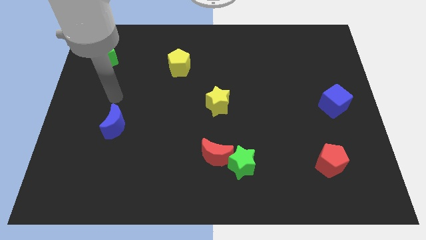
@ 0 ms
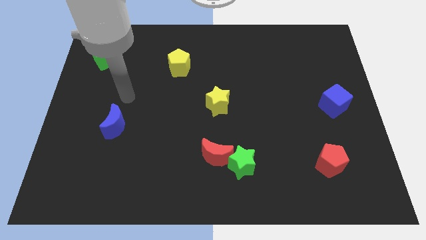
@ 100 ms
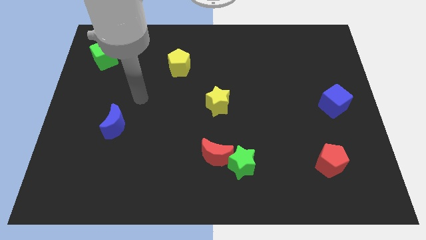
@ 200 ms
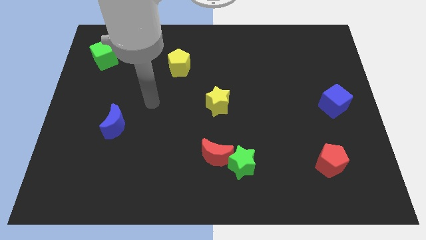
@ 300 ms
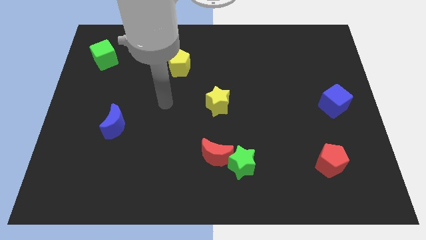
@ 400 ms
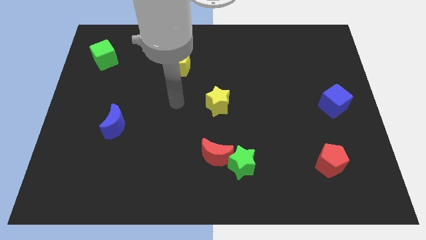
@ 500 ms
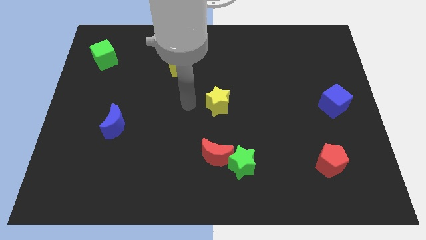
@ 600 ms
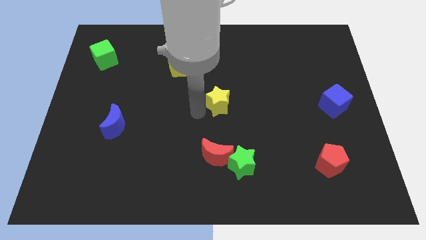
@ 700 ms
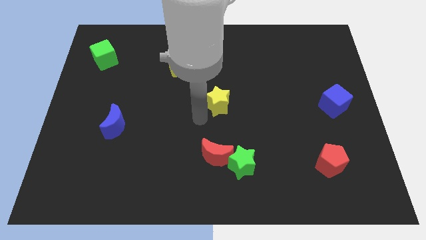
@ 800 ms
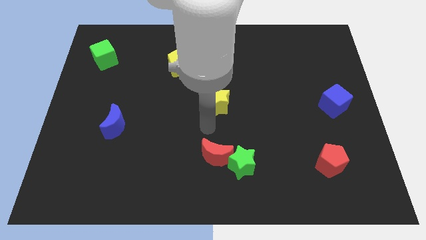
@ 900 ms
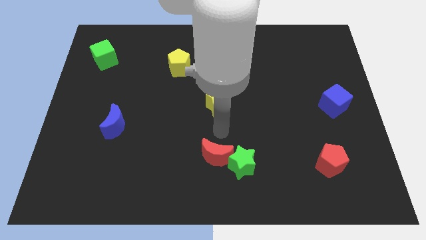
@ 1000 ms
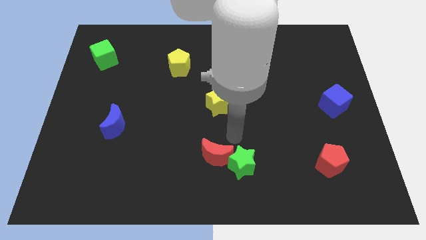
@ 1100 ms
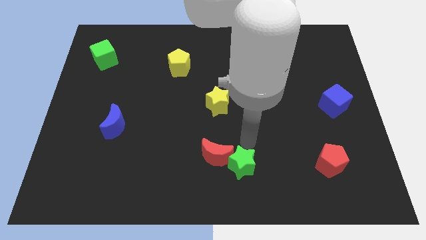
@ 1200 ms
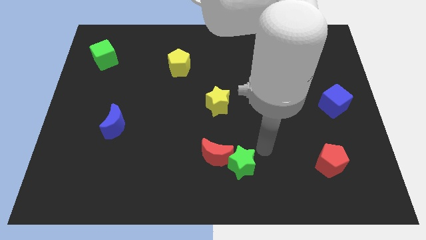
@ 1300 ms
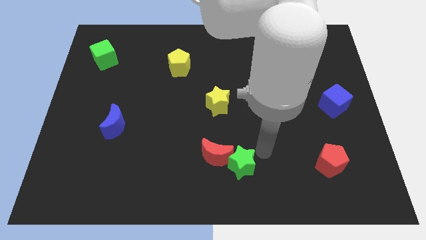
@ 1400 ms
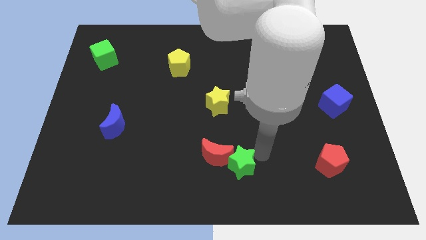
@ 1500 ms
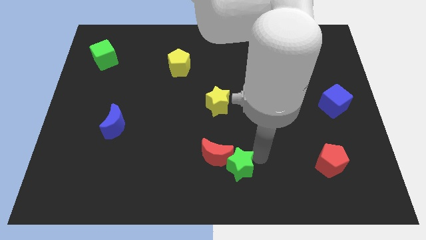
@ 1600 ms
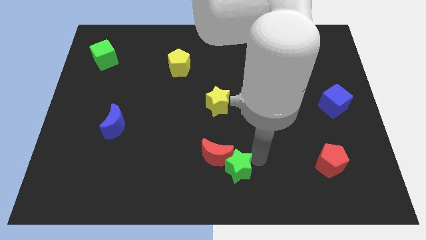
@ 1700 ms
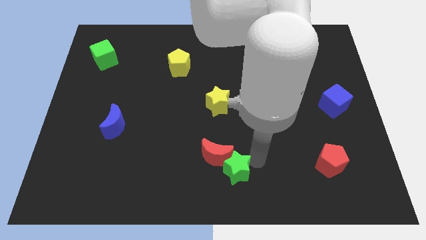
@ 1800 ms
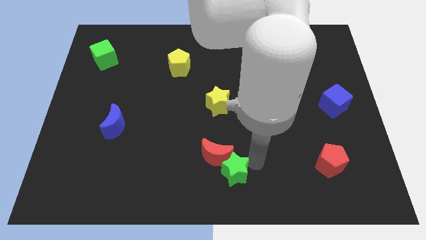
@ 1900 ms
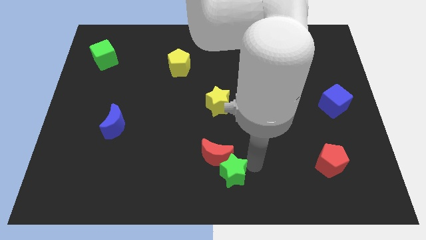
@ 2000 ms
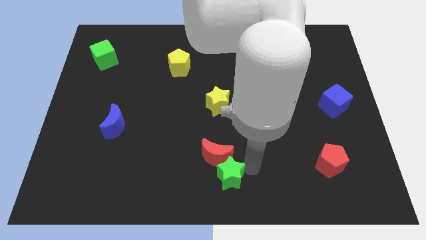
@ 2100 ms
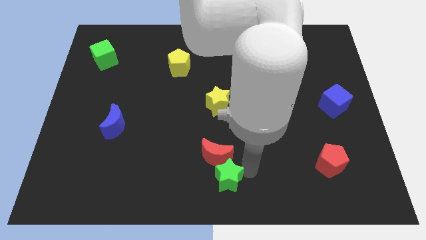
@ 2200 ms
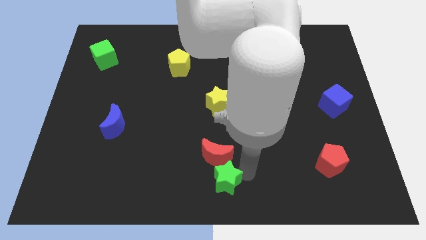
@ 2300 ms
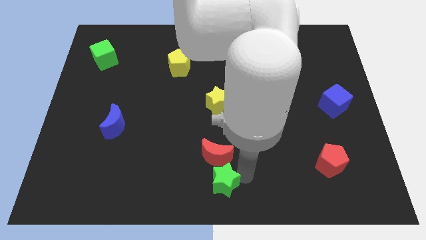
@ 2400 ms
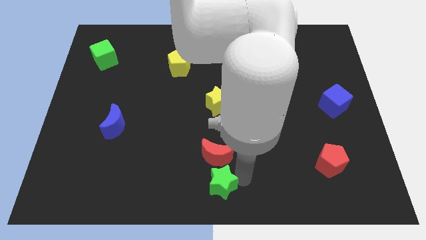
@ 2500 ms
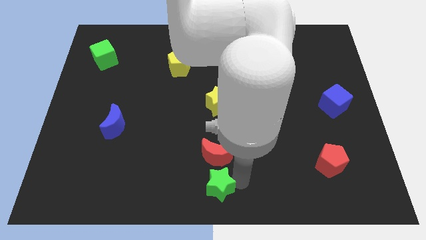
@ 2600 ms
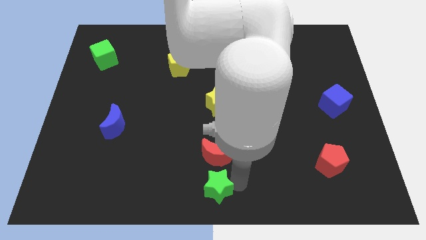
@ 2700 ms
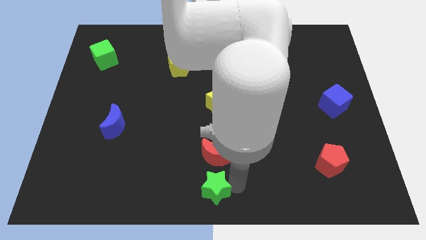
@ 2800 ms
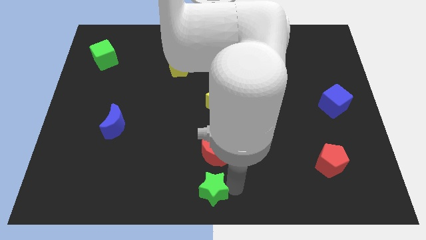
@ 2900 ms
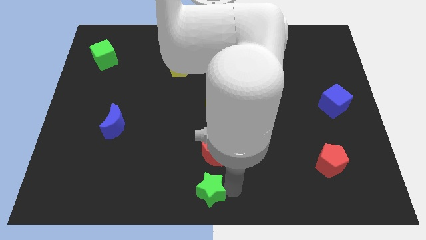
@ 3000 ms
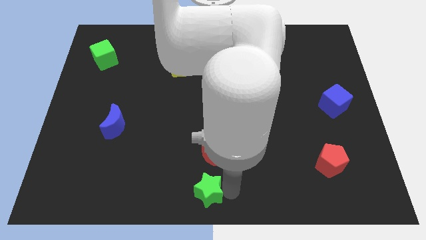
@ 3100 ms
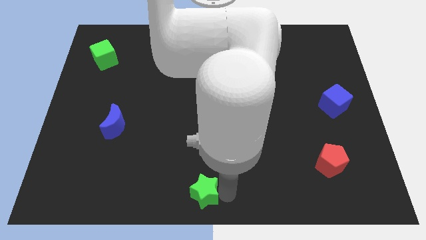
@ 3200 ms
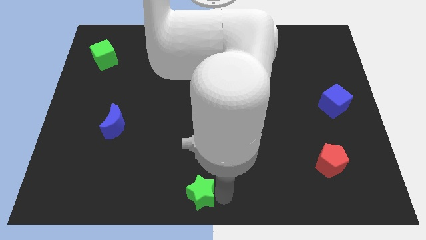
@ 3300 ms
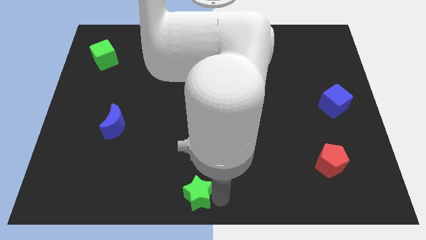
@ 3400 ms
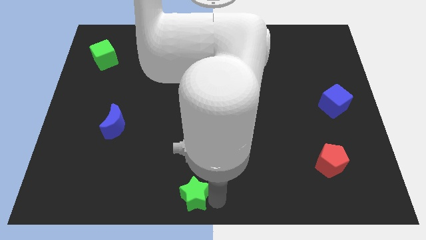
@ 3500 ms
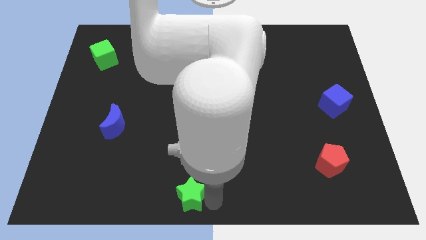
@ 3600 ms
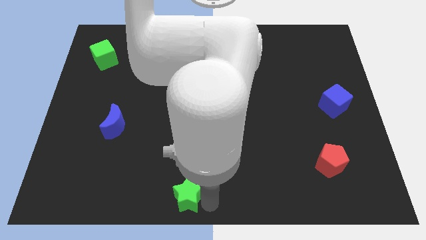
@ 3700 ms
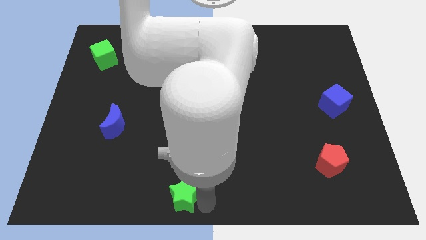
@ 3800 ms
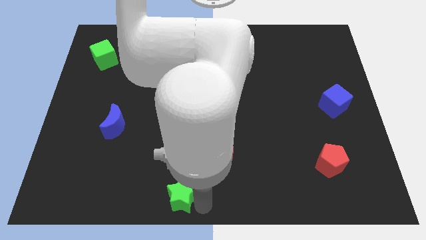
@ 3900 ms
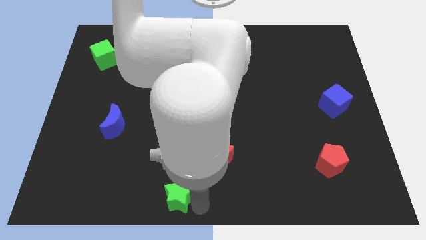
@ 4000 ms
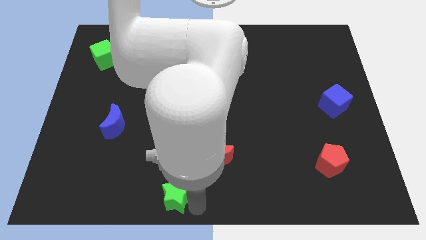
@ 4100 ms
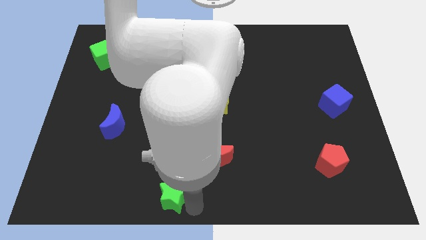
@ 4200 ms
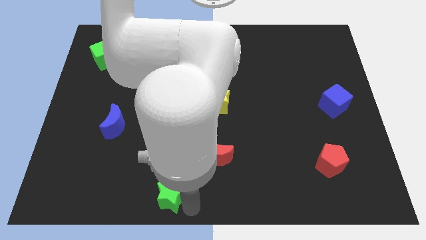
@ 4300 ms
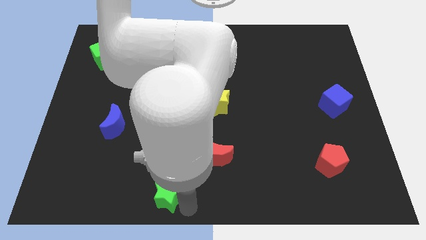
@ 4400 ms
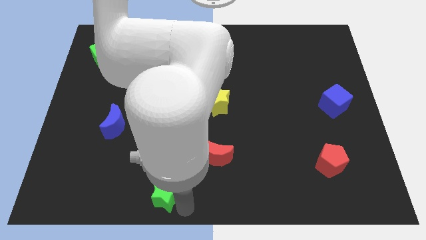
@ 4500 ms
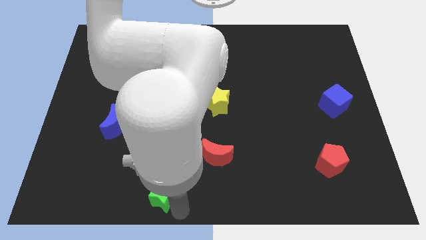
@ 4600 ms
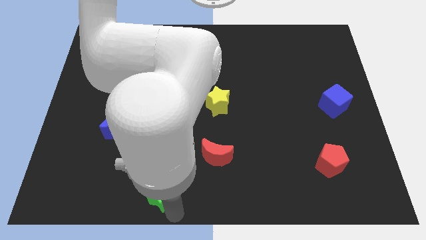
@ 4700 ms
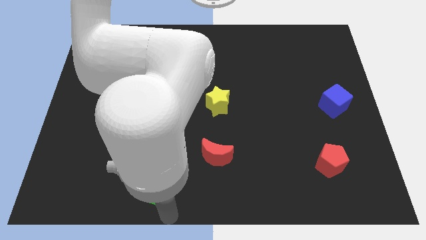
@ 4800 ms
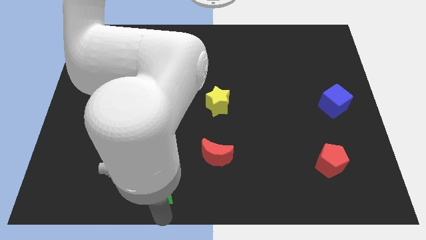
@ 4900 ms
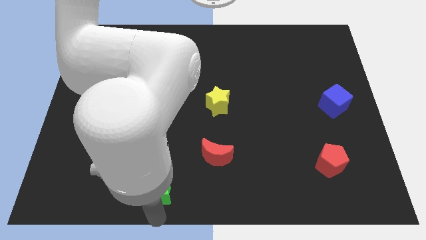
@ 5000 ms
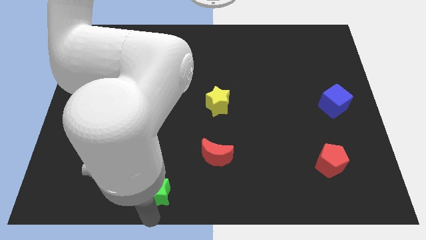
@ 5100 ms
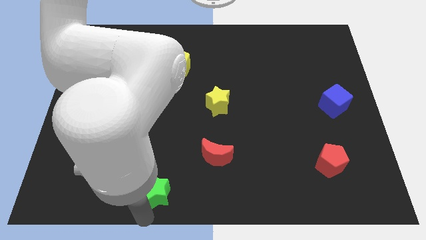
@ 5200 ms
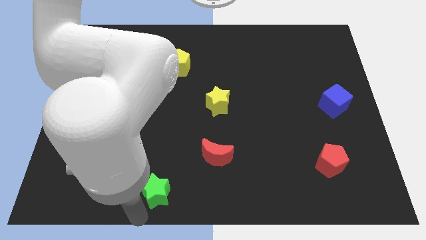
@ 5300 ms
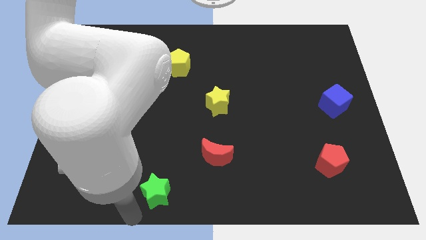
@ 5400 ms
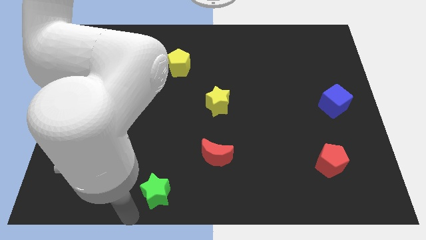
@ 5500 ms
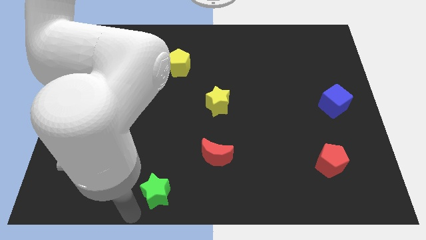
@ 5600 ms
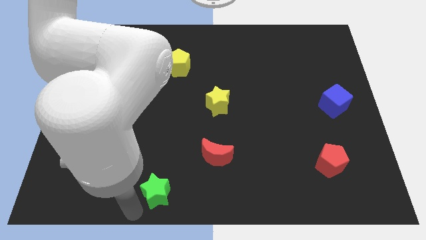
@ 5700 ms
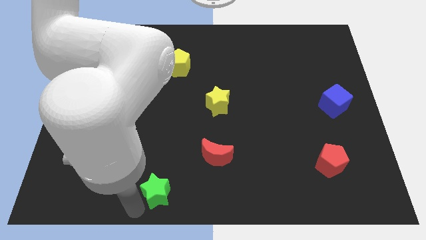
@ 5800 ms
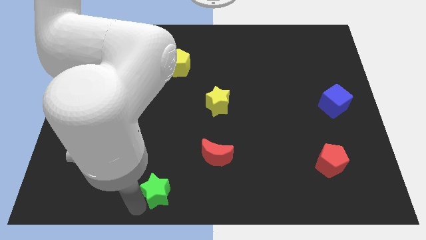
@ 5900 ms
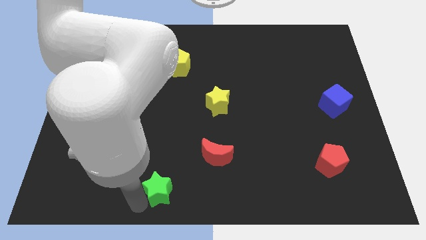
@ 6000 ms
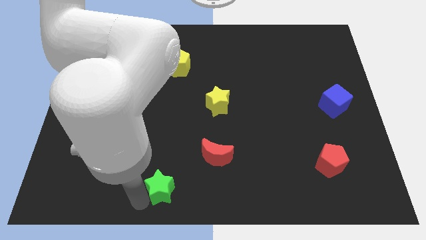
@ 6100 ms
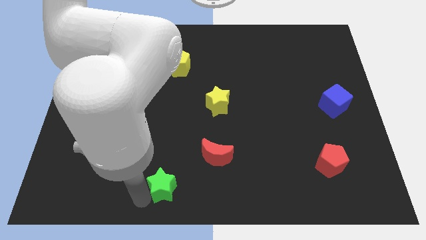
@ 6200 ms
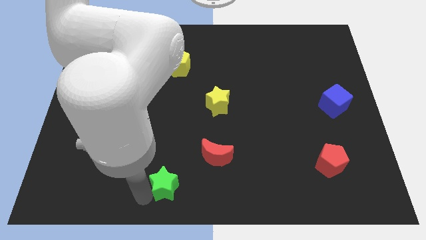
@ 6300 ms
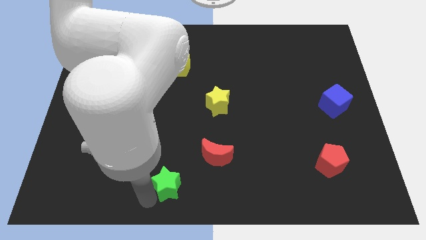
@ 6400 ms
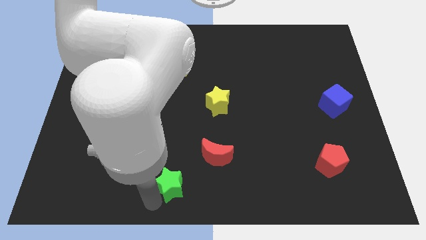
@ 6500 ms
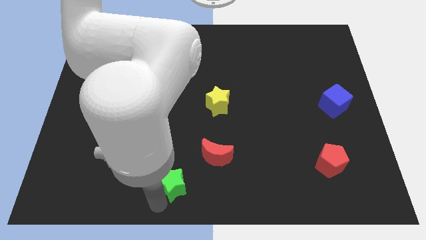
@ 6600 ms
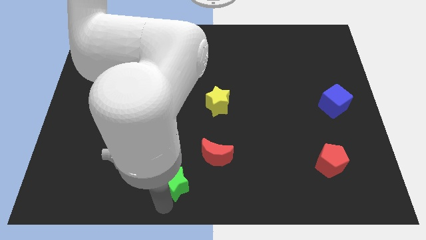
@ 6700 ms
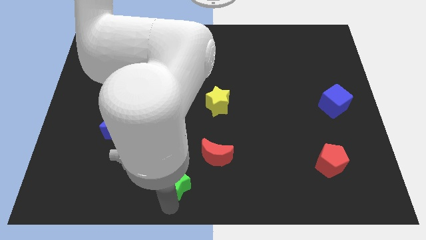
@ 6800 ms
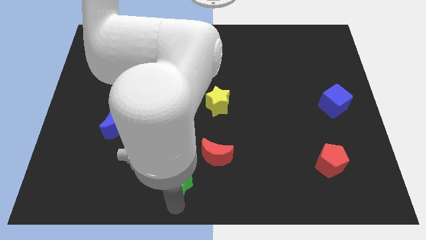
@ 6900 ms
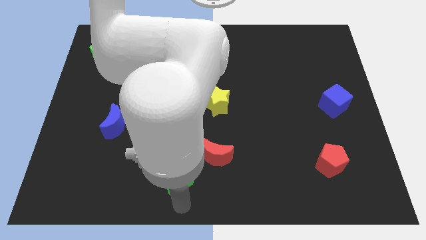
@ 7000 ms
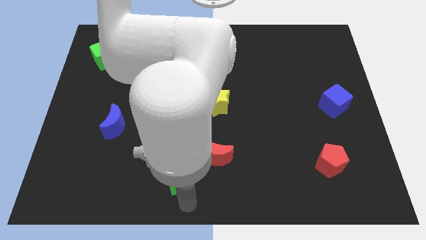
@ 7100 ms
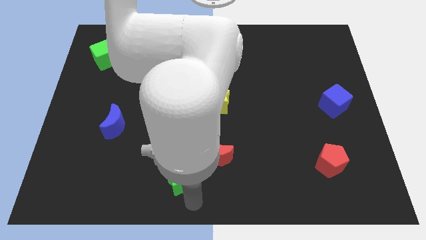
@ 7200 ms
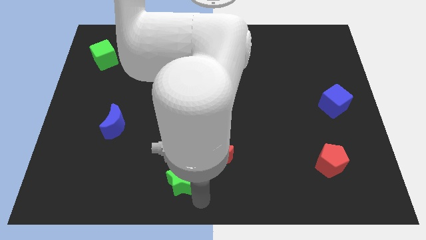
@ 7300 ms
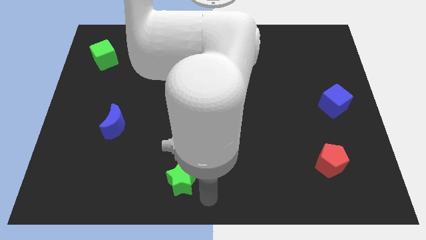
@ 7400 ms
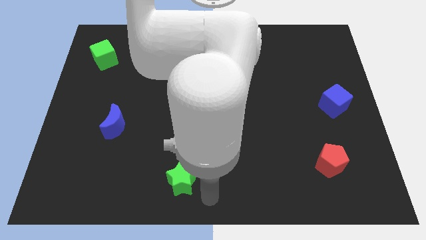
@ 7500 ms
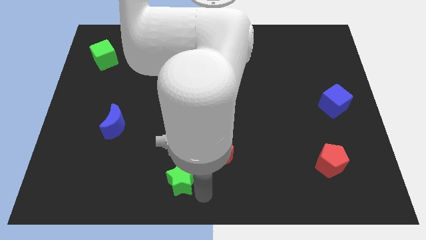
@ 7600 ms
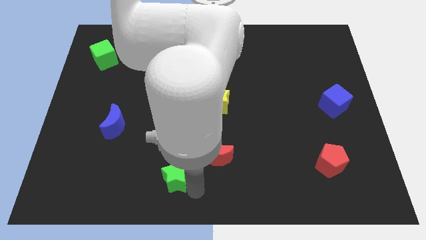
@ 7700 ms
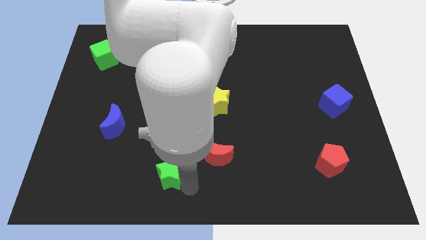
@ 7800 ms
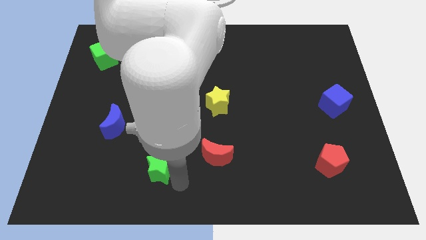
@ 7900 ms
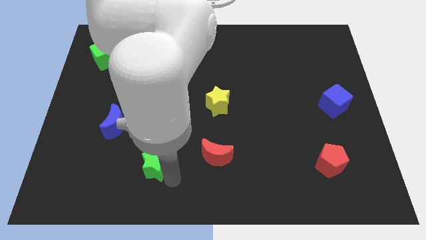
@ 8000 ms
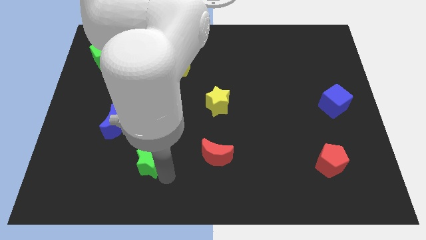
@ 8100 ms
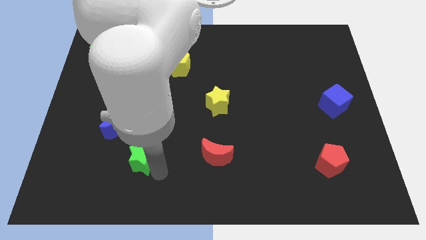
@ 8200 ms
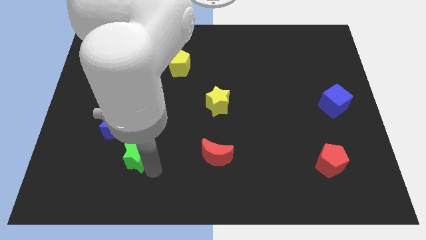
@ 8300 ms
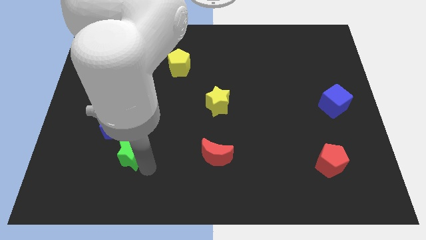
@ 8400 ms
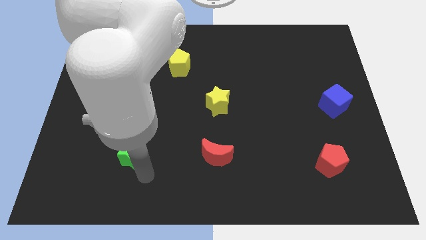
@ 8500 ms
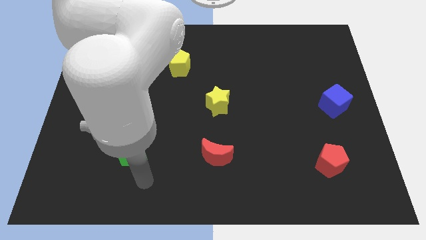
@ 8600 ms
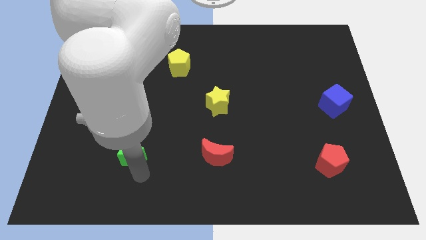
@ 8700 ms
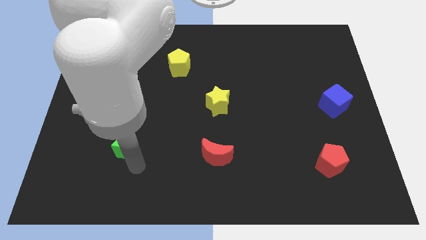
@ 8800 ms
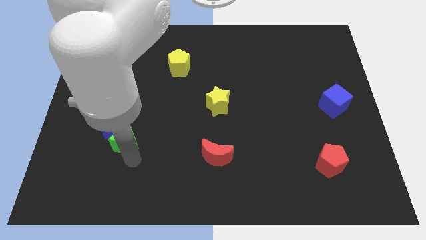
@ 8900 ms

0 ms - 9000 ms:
put the green star to the blue moon
